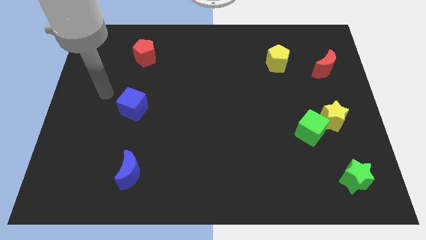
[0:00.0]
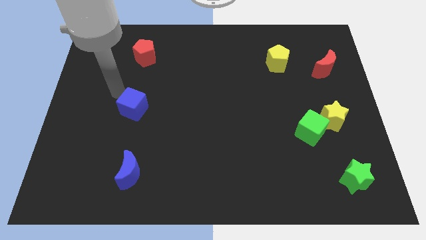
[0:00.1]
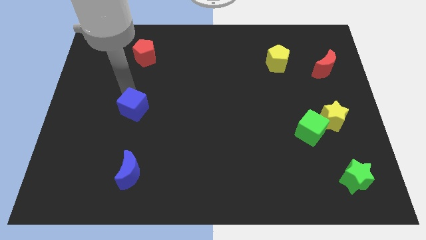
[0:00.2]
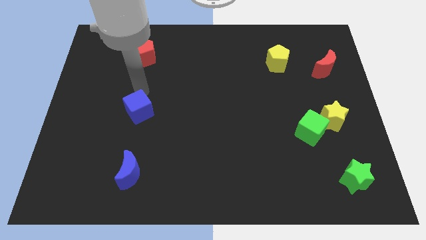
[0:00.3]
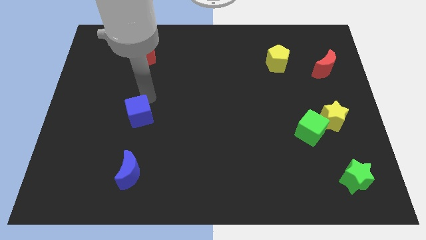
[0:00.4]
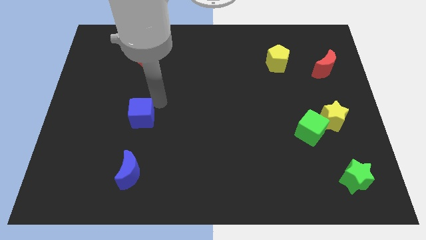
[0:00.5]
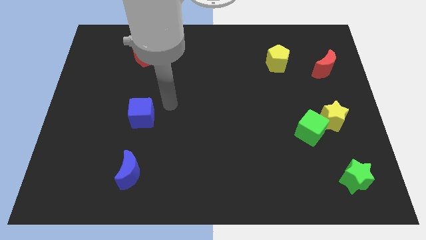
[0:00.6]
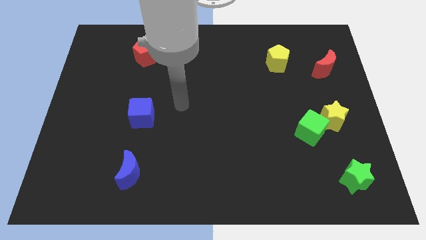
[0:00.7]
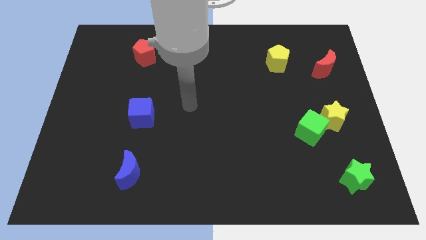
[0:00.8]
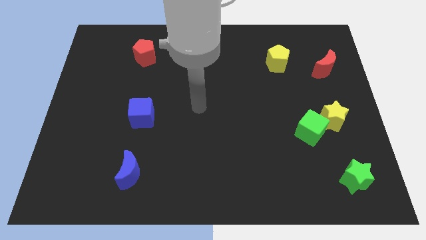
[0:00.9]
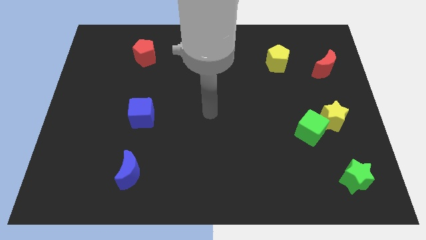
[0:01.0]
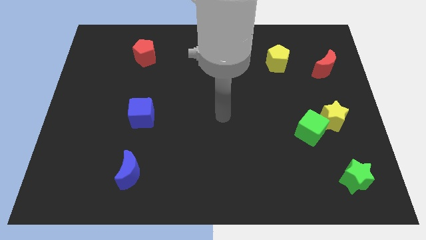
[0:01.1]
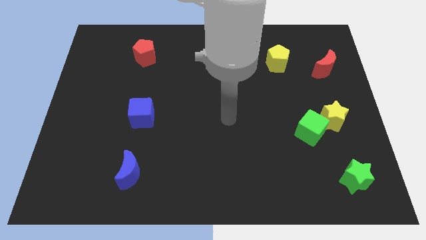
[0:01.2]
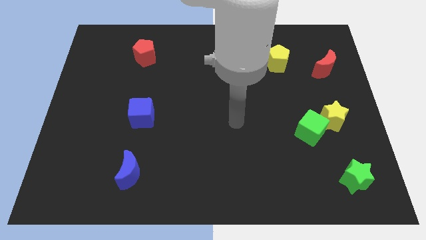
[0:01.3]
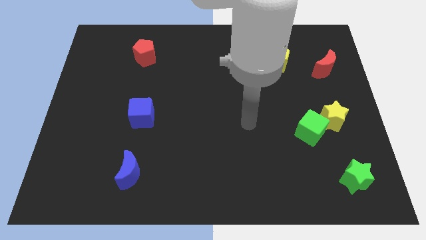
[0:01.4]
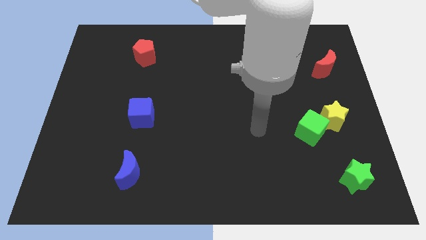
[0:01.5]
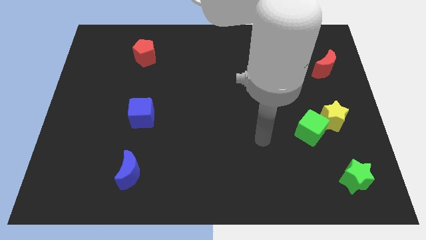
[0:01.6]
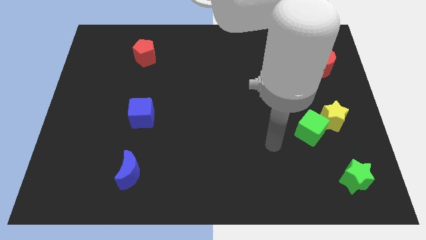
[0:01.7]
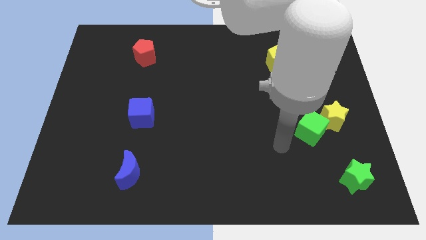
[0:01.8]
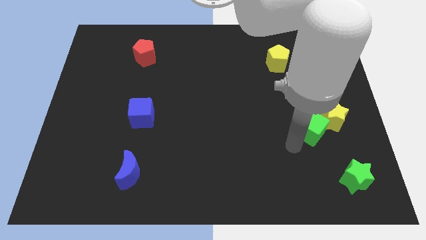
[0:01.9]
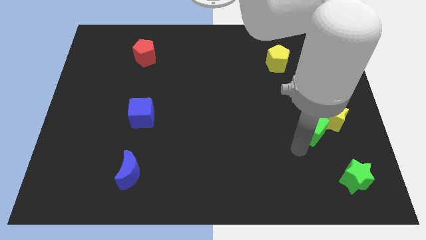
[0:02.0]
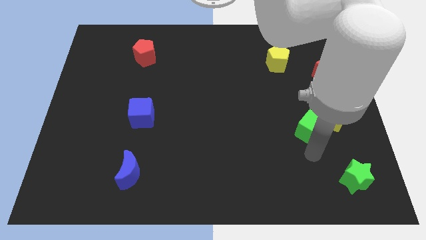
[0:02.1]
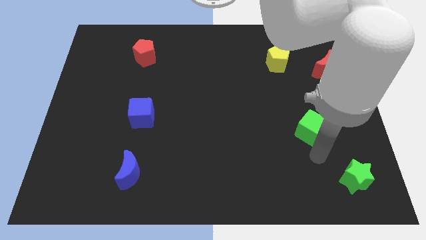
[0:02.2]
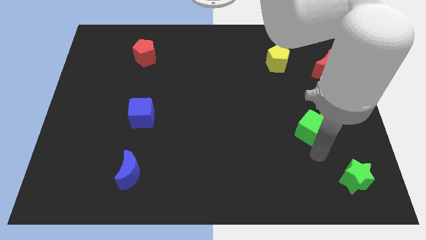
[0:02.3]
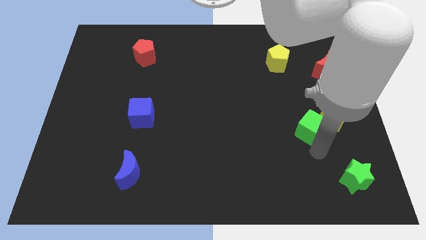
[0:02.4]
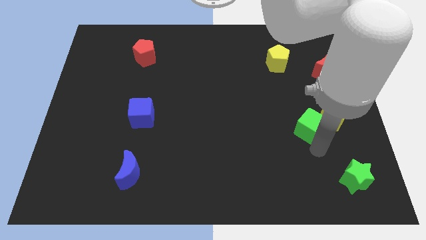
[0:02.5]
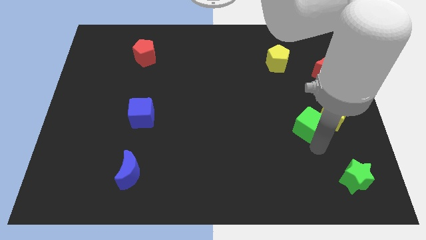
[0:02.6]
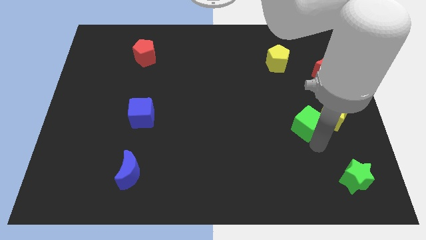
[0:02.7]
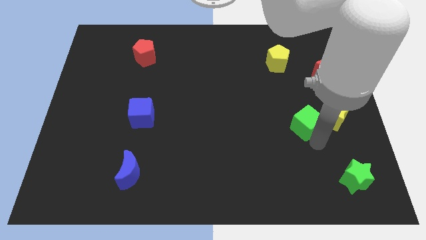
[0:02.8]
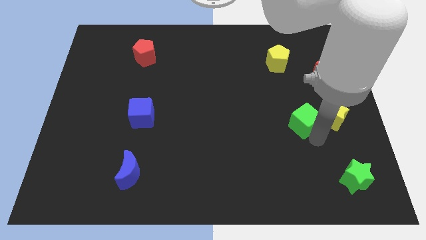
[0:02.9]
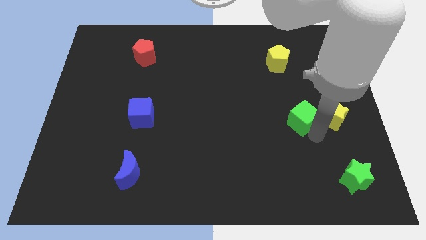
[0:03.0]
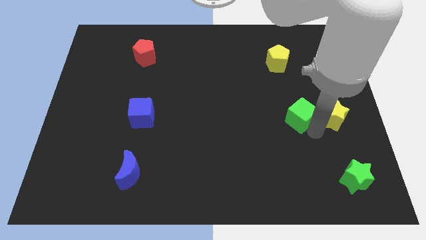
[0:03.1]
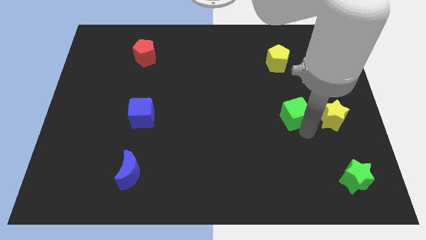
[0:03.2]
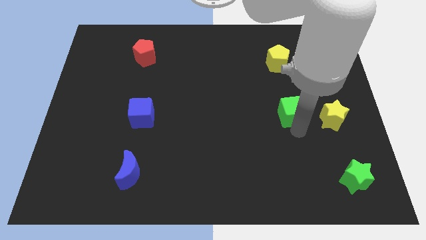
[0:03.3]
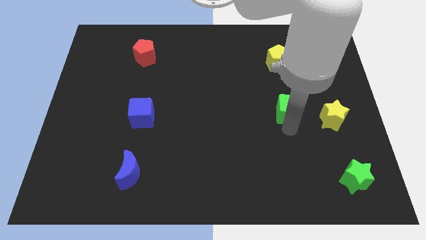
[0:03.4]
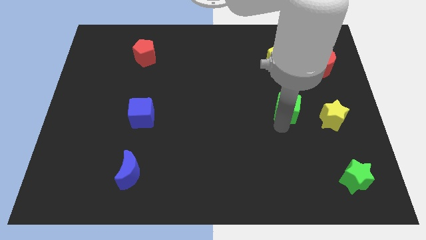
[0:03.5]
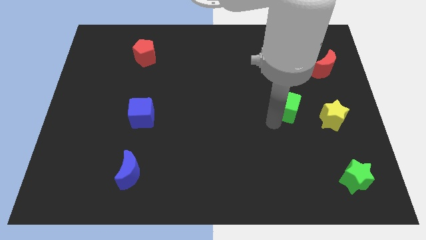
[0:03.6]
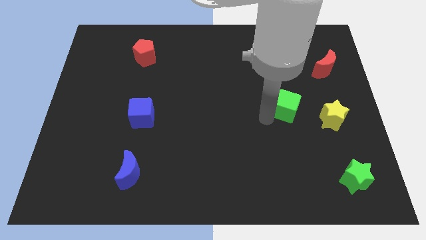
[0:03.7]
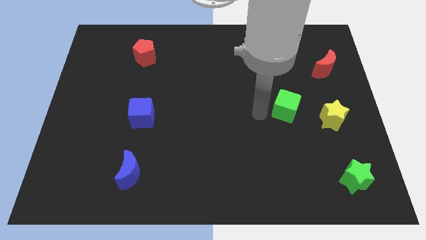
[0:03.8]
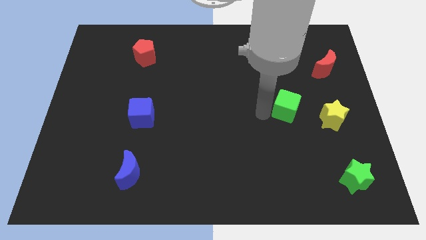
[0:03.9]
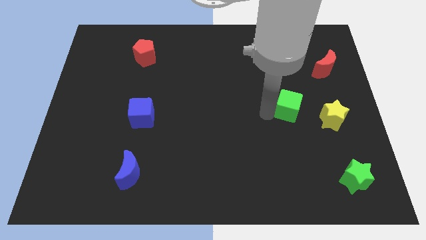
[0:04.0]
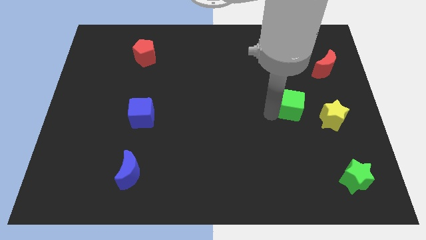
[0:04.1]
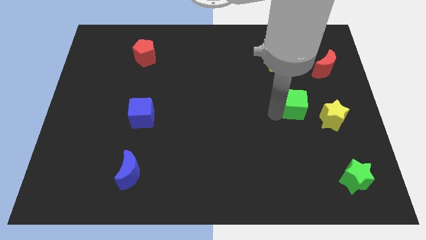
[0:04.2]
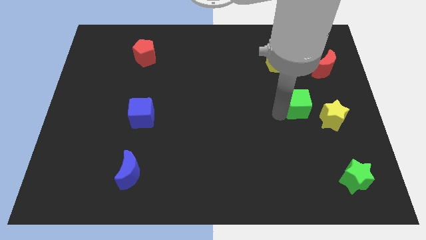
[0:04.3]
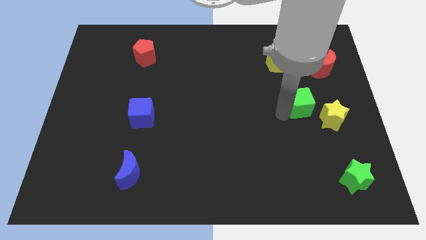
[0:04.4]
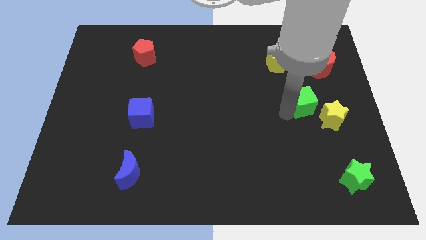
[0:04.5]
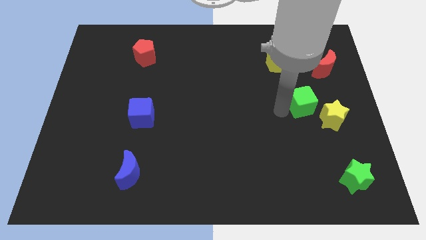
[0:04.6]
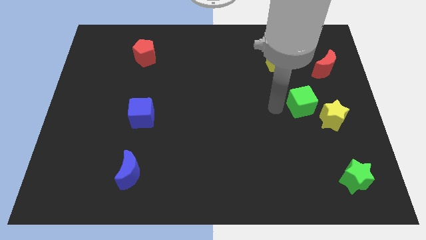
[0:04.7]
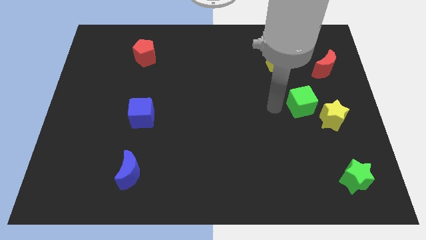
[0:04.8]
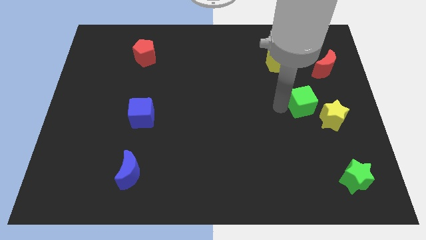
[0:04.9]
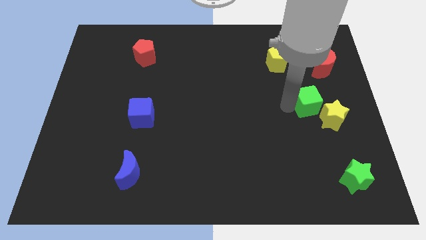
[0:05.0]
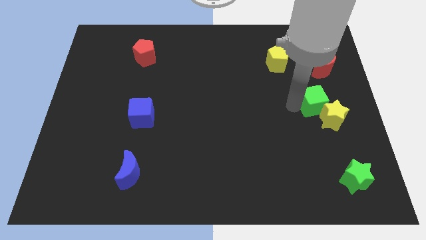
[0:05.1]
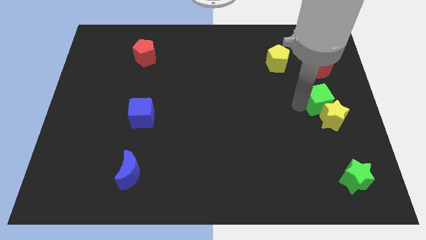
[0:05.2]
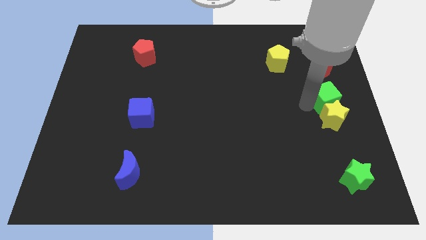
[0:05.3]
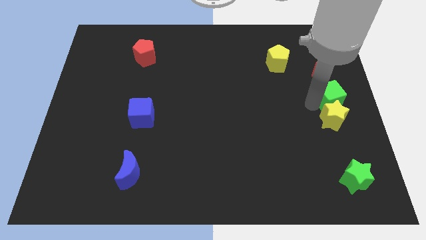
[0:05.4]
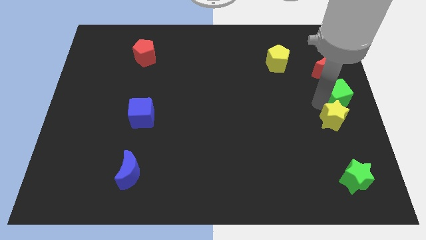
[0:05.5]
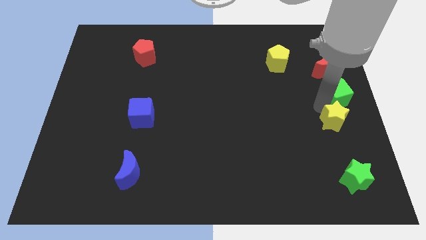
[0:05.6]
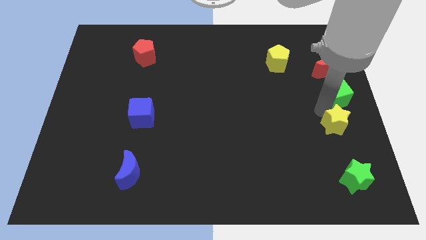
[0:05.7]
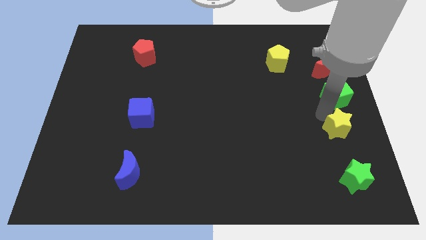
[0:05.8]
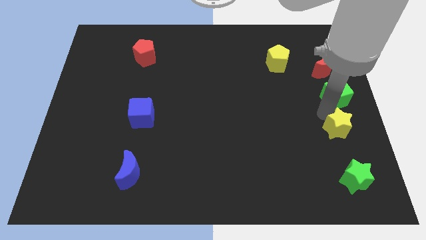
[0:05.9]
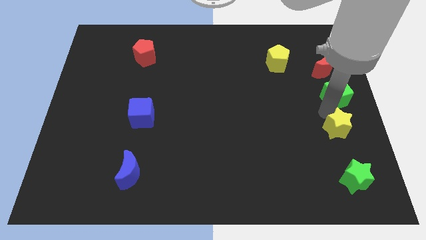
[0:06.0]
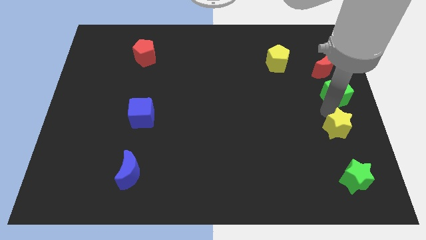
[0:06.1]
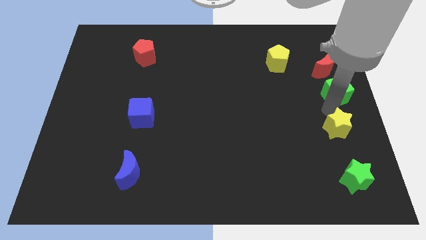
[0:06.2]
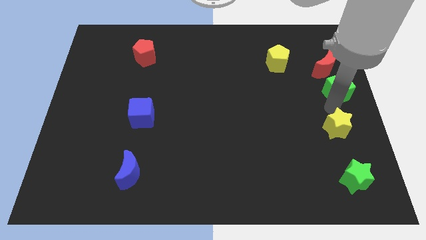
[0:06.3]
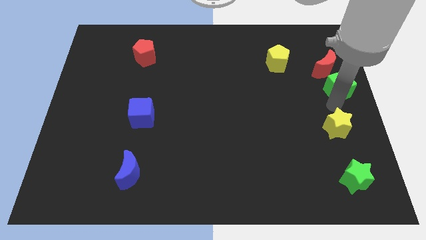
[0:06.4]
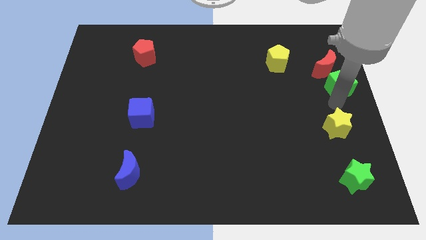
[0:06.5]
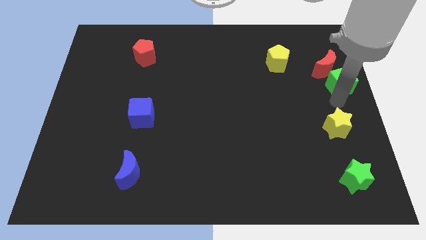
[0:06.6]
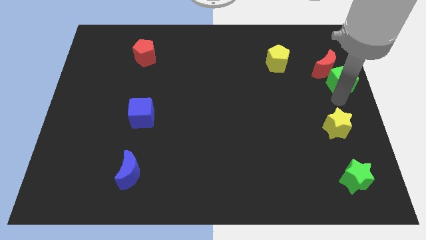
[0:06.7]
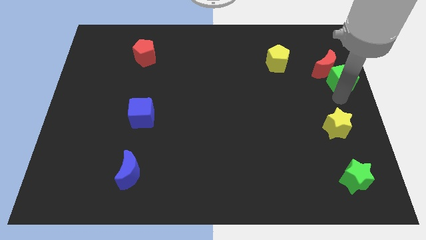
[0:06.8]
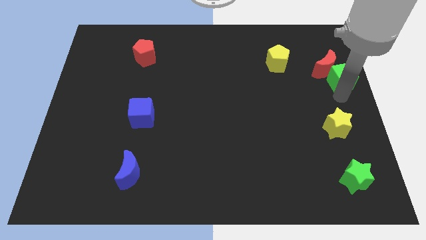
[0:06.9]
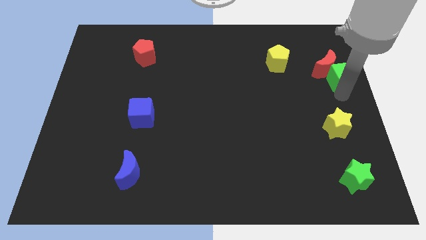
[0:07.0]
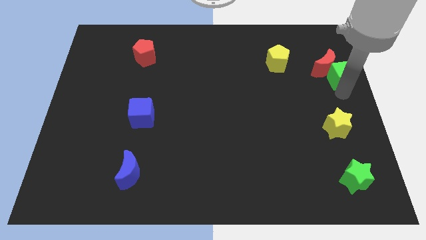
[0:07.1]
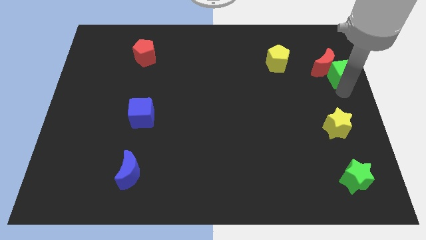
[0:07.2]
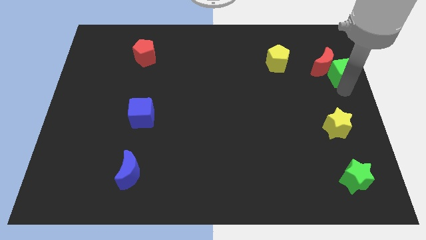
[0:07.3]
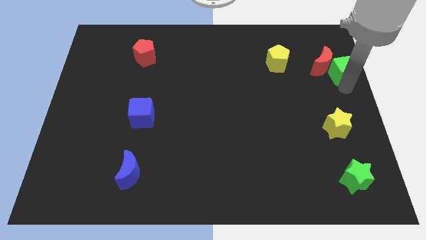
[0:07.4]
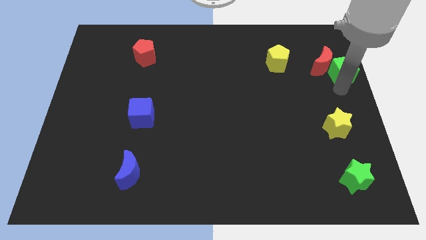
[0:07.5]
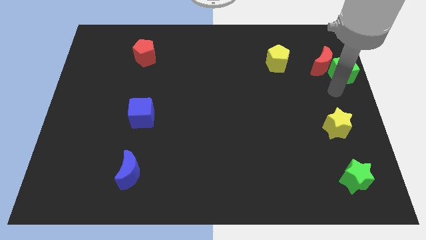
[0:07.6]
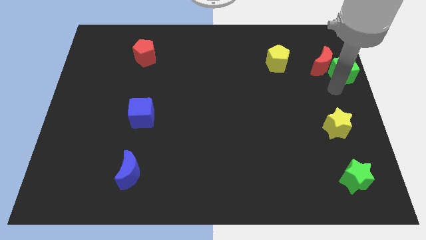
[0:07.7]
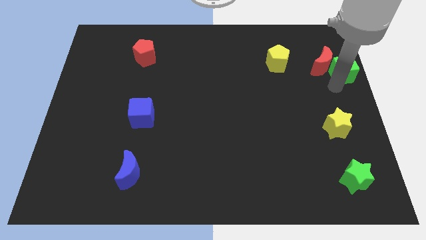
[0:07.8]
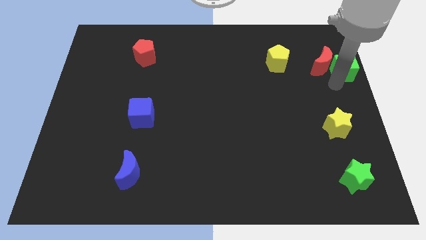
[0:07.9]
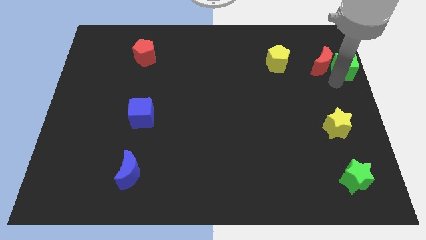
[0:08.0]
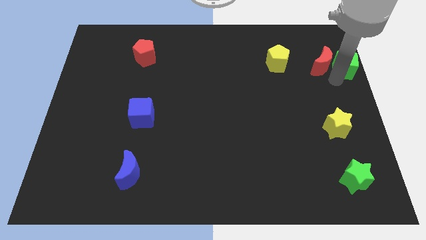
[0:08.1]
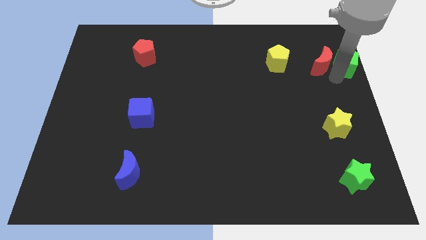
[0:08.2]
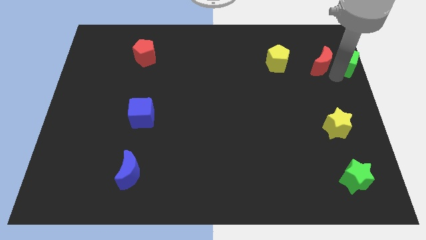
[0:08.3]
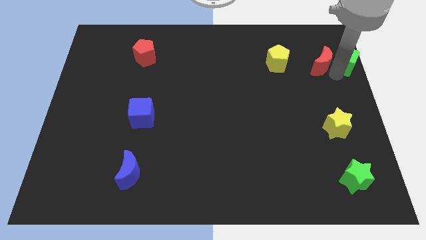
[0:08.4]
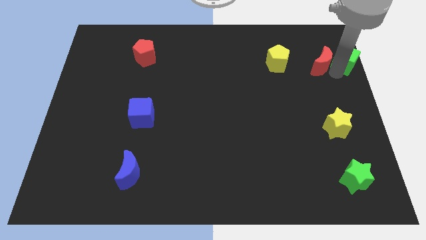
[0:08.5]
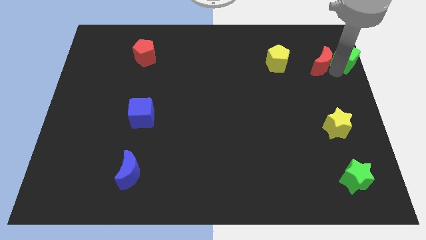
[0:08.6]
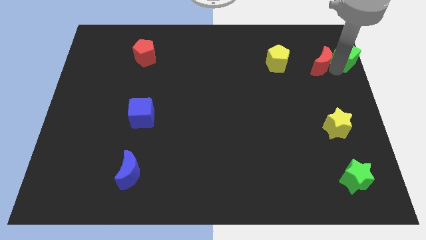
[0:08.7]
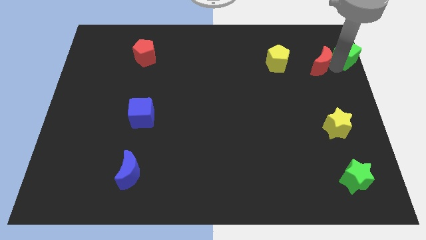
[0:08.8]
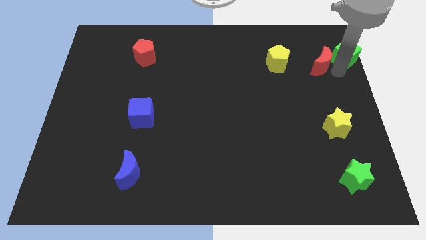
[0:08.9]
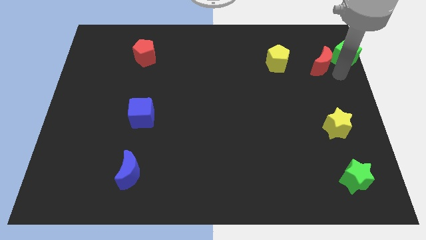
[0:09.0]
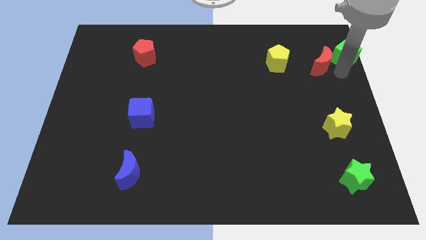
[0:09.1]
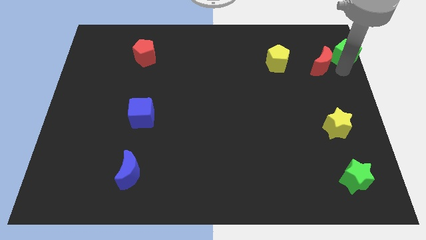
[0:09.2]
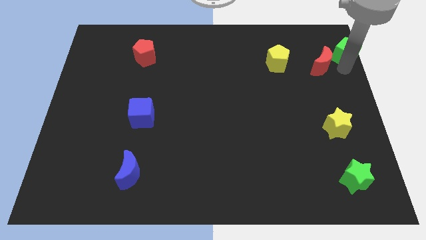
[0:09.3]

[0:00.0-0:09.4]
move the green cube to the upper right corner
